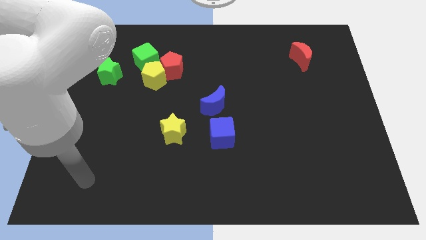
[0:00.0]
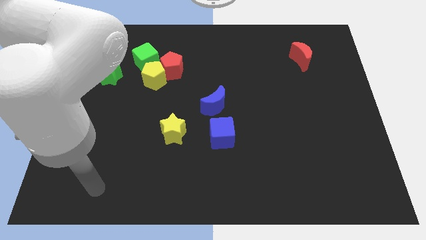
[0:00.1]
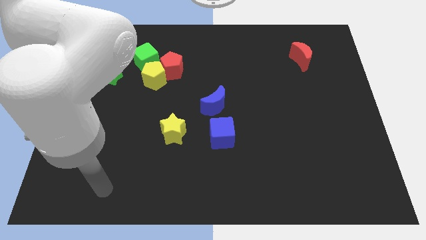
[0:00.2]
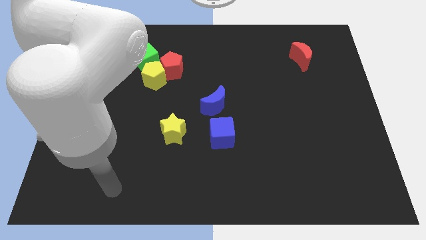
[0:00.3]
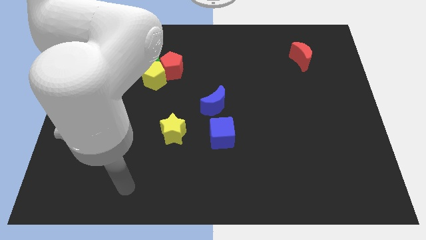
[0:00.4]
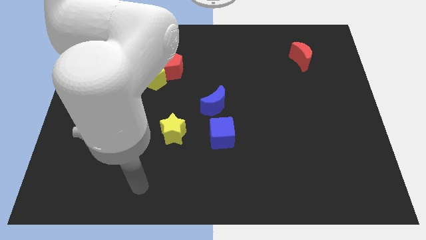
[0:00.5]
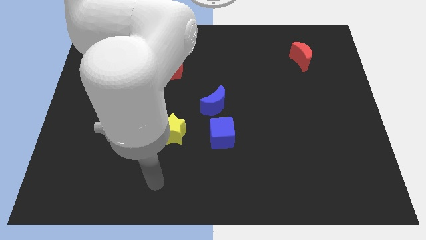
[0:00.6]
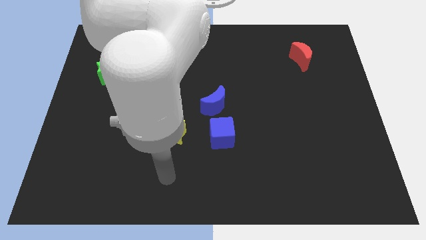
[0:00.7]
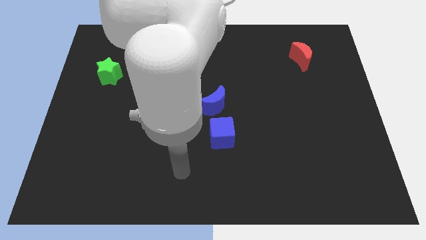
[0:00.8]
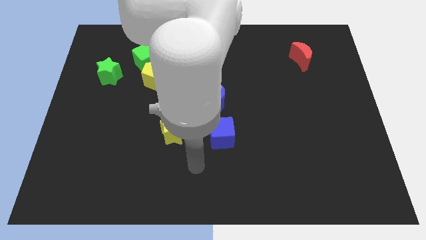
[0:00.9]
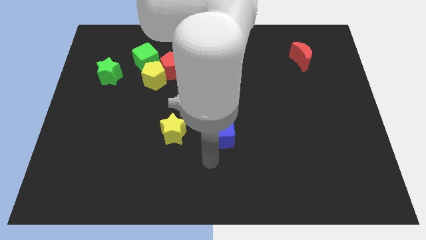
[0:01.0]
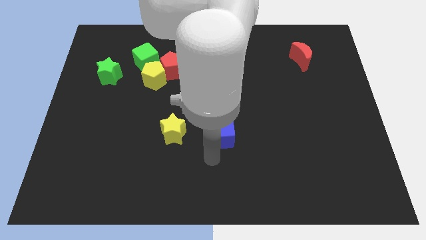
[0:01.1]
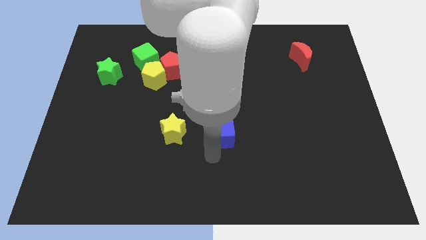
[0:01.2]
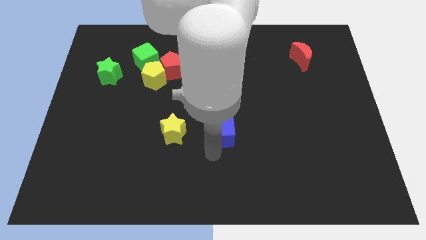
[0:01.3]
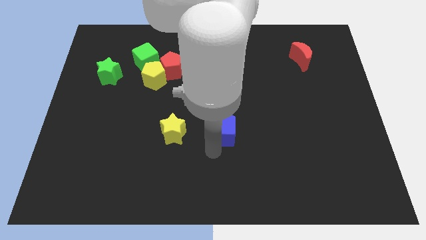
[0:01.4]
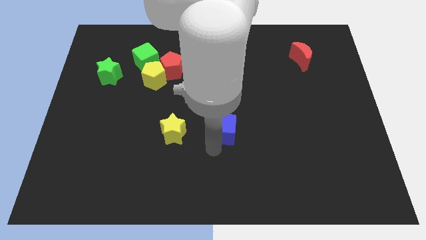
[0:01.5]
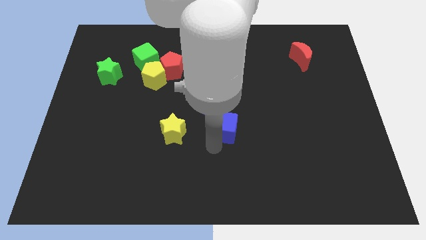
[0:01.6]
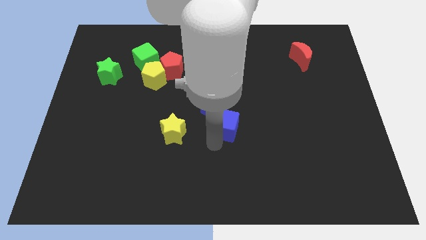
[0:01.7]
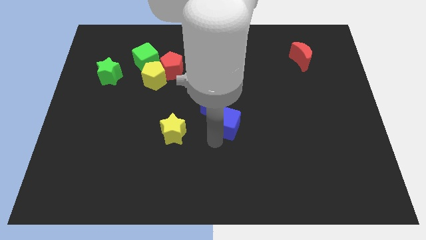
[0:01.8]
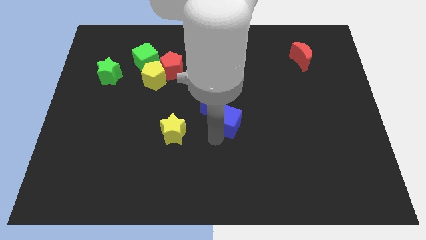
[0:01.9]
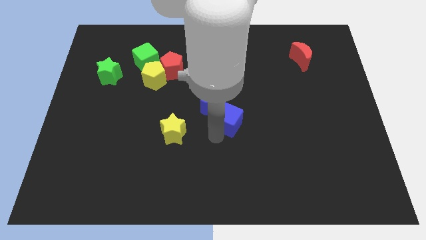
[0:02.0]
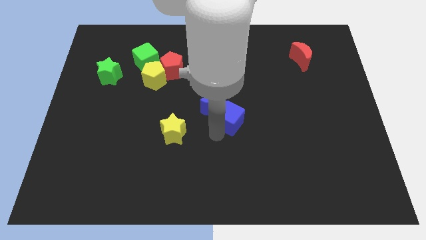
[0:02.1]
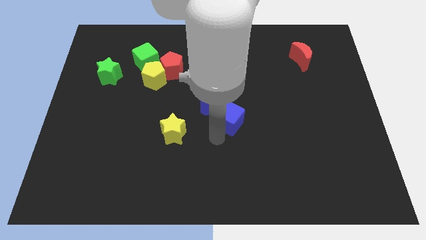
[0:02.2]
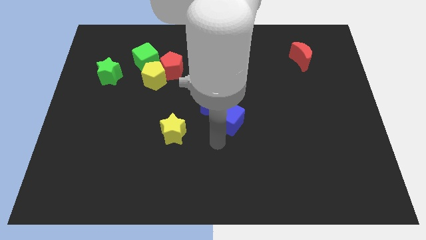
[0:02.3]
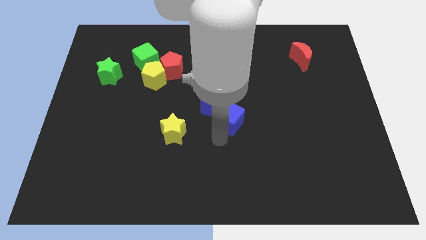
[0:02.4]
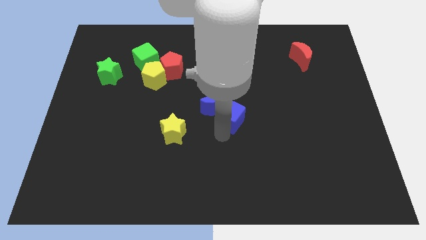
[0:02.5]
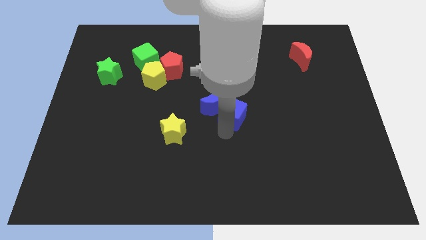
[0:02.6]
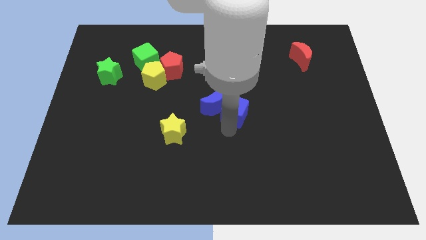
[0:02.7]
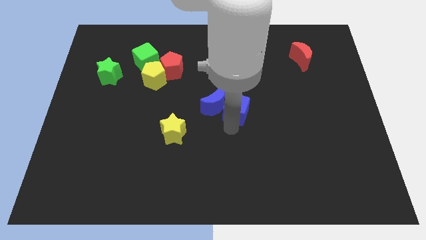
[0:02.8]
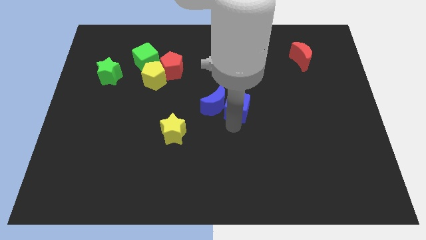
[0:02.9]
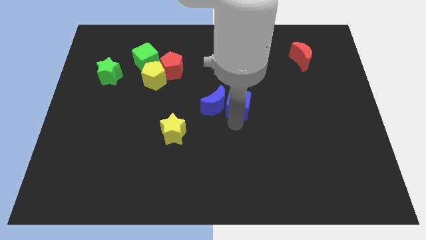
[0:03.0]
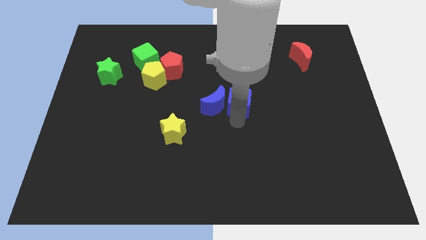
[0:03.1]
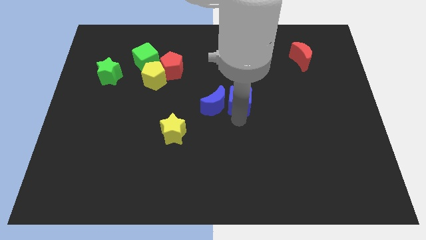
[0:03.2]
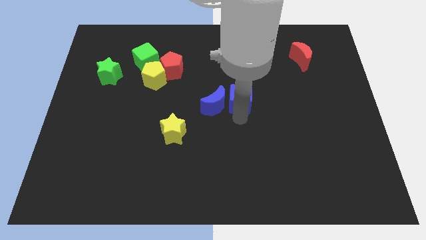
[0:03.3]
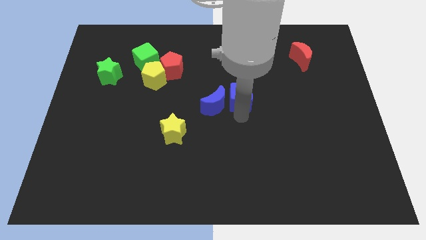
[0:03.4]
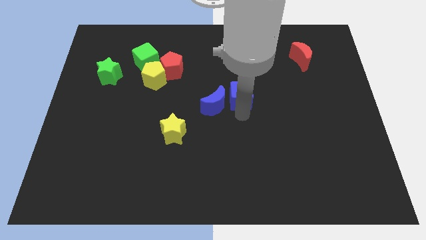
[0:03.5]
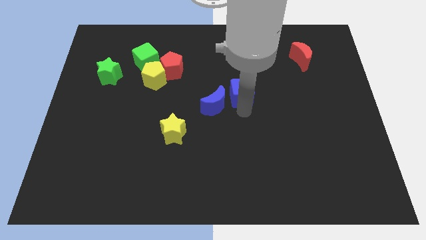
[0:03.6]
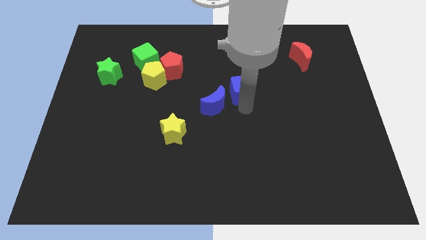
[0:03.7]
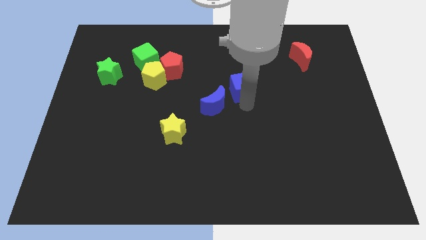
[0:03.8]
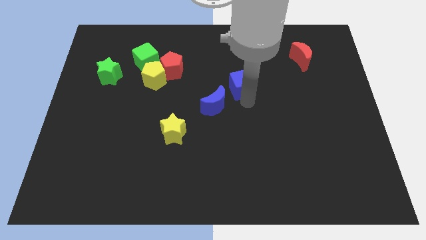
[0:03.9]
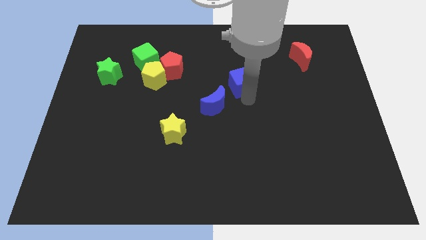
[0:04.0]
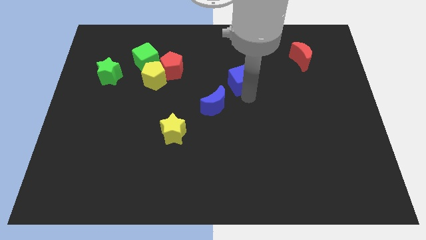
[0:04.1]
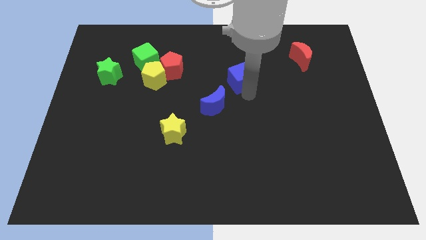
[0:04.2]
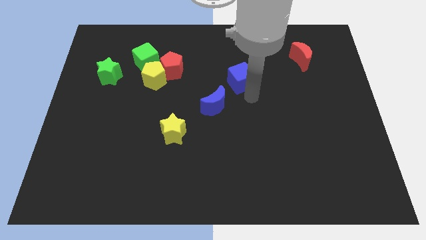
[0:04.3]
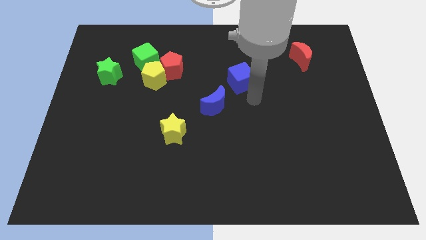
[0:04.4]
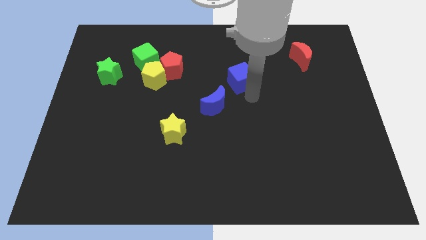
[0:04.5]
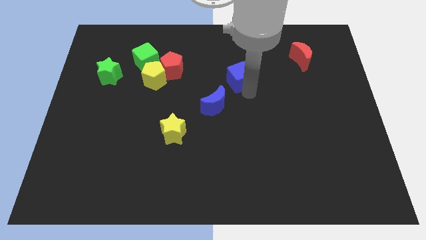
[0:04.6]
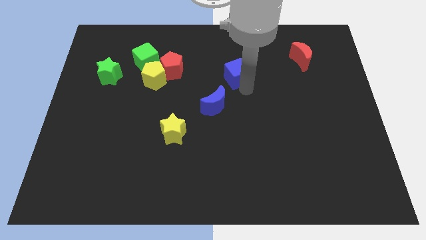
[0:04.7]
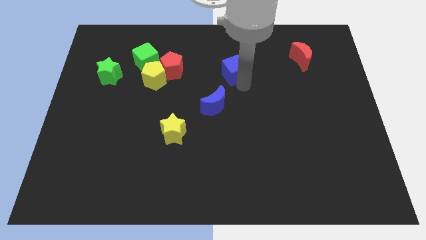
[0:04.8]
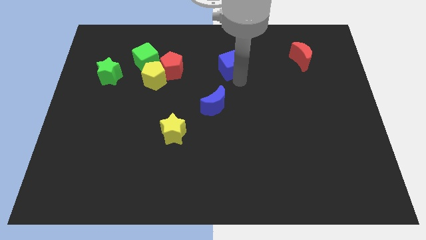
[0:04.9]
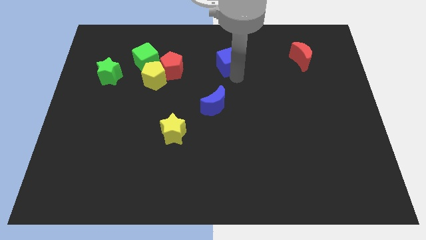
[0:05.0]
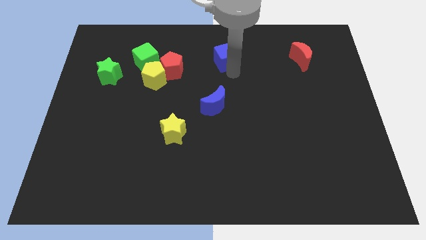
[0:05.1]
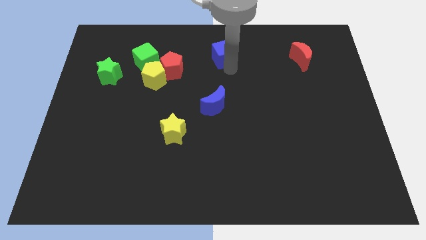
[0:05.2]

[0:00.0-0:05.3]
push the blue cube to the top

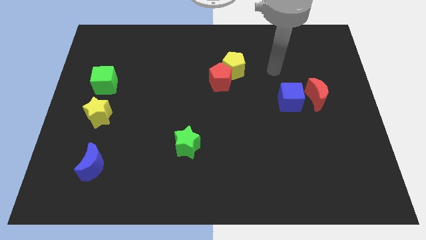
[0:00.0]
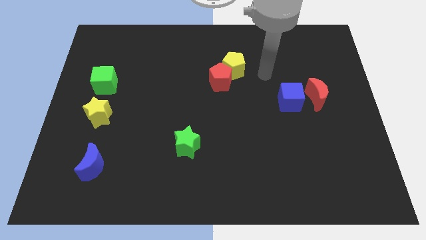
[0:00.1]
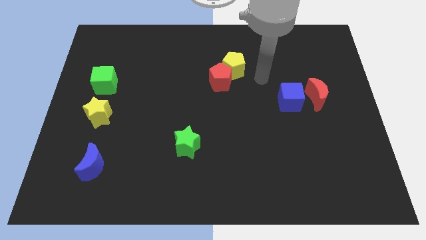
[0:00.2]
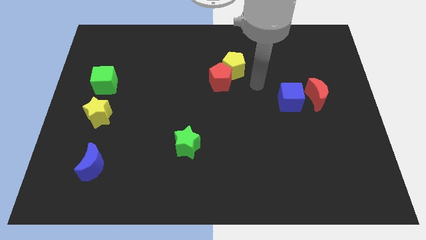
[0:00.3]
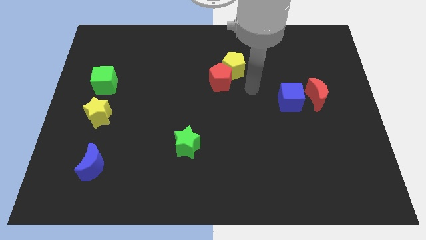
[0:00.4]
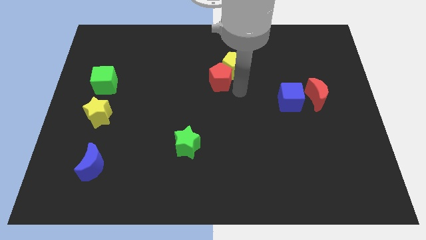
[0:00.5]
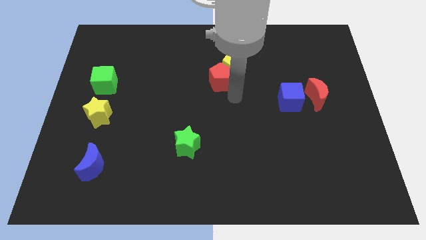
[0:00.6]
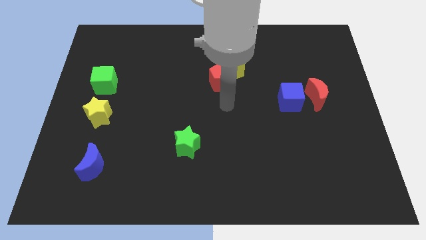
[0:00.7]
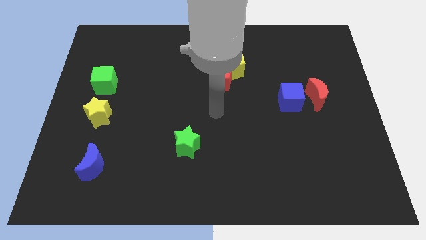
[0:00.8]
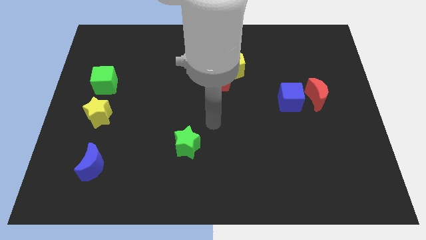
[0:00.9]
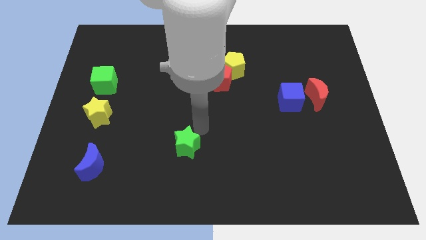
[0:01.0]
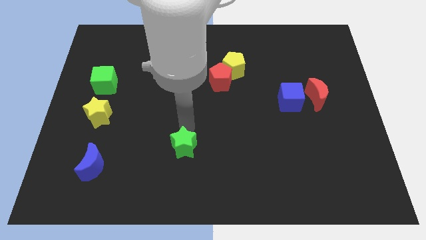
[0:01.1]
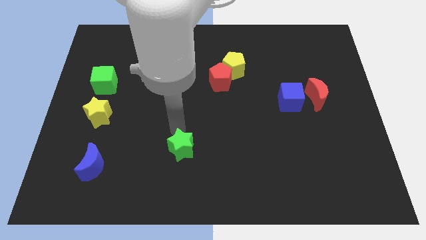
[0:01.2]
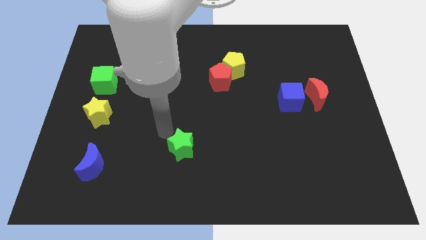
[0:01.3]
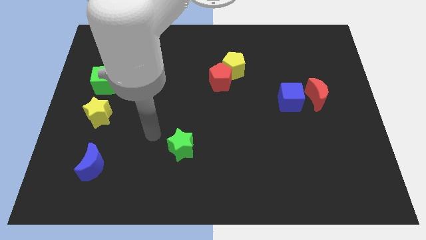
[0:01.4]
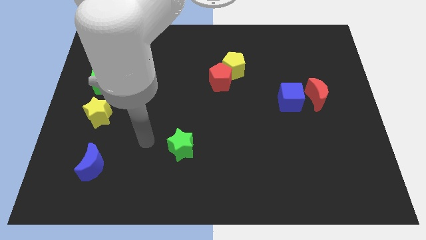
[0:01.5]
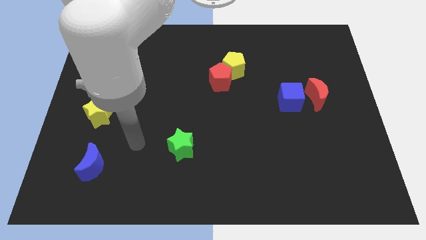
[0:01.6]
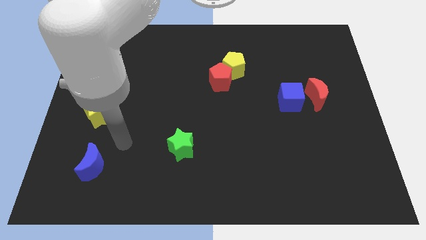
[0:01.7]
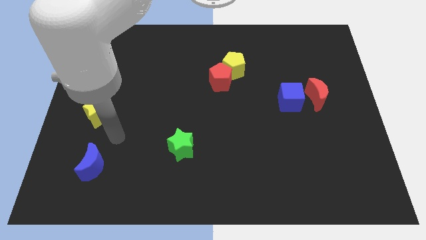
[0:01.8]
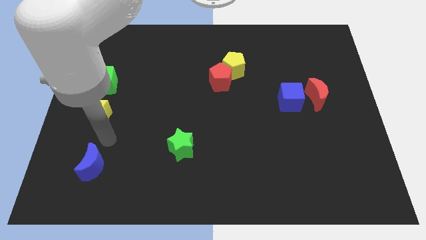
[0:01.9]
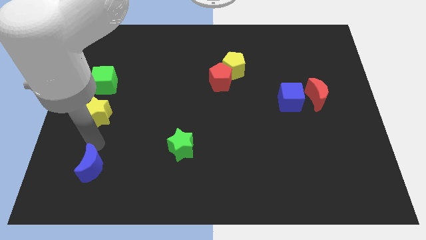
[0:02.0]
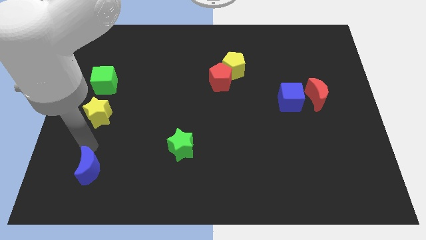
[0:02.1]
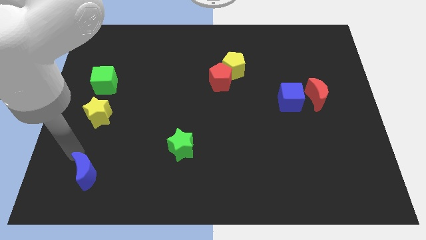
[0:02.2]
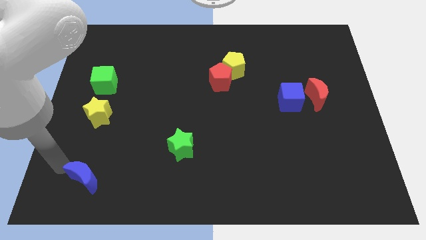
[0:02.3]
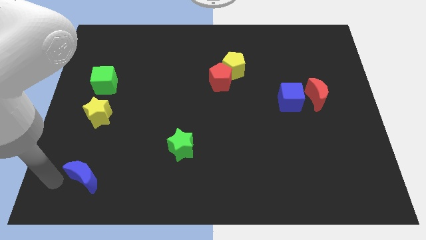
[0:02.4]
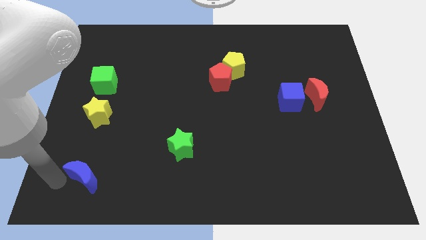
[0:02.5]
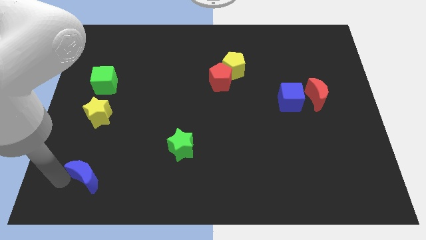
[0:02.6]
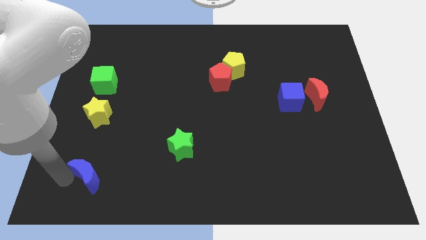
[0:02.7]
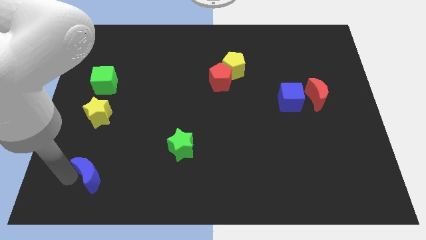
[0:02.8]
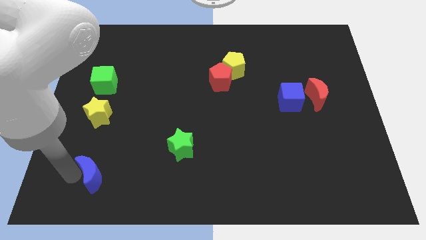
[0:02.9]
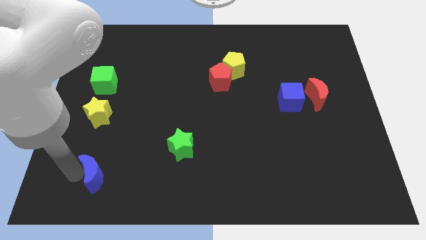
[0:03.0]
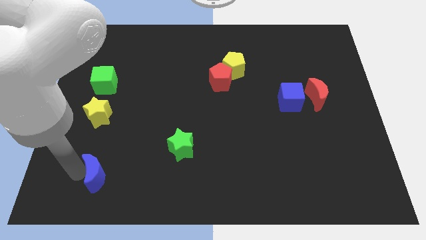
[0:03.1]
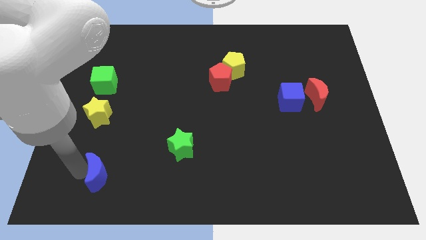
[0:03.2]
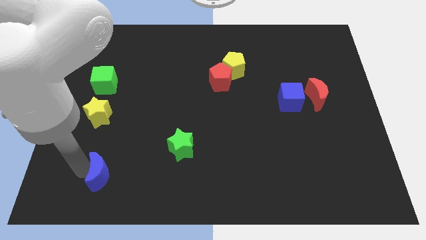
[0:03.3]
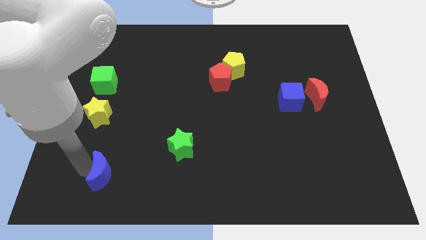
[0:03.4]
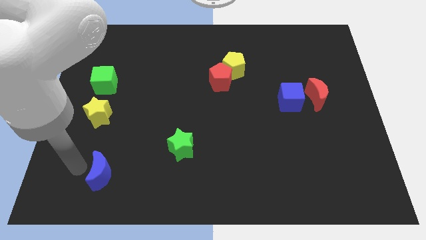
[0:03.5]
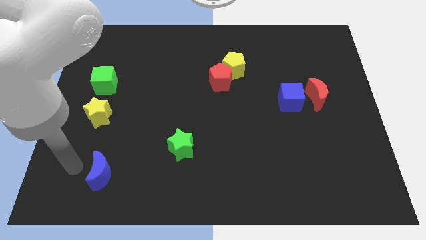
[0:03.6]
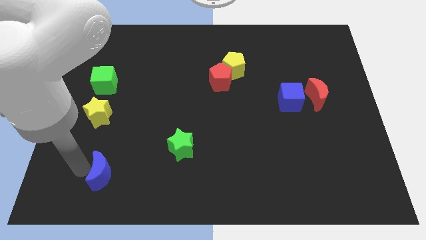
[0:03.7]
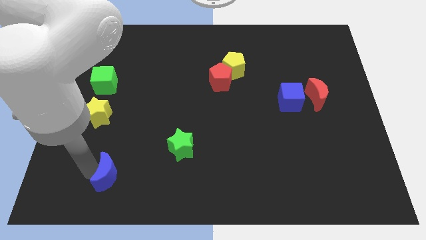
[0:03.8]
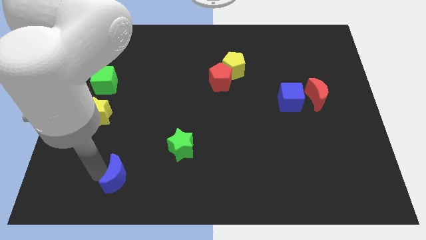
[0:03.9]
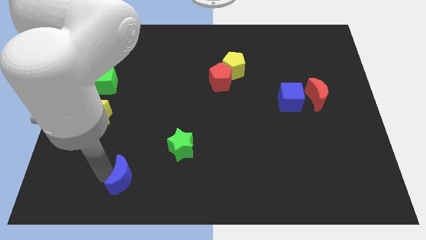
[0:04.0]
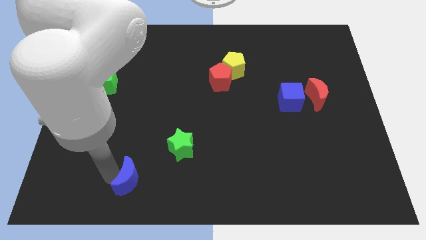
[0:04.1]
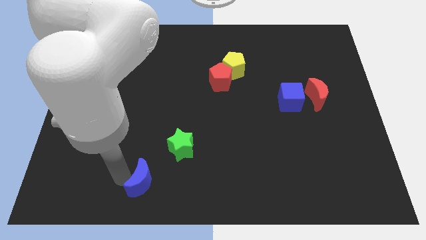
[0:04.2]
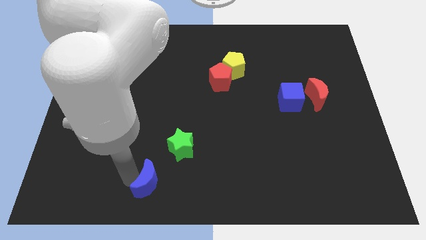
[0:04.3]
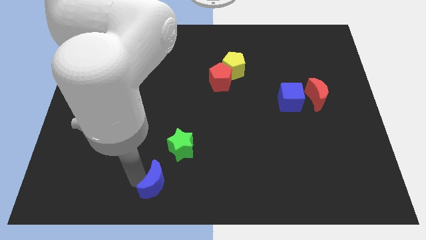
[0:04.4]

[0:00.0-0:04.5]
slide the blue moon to the bottom
